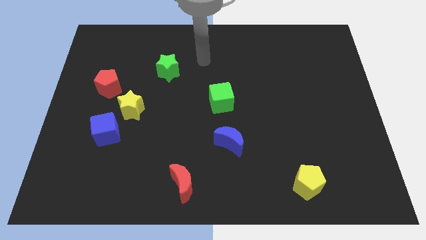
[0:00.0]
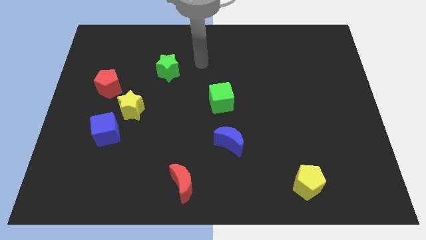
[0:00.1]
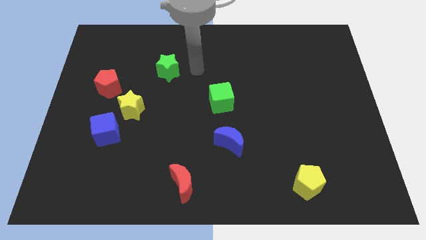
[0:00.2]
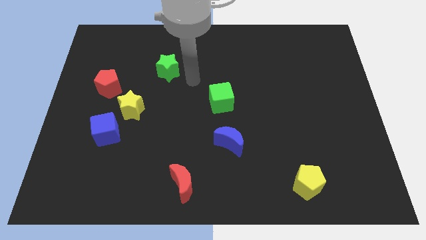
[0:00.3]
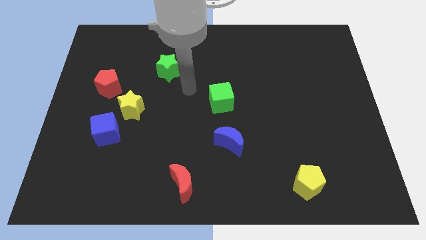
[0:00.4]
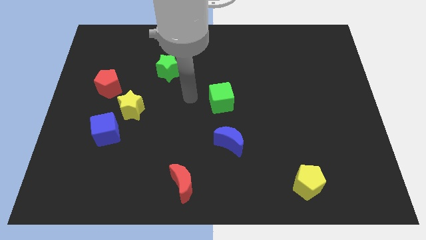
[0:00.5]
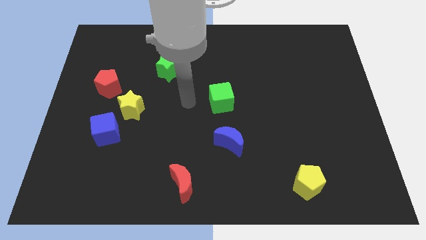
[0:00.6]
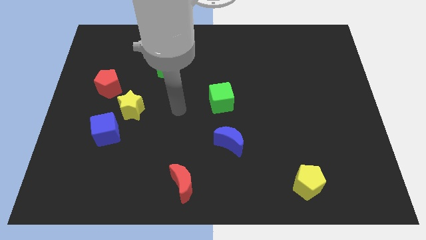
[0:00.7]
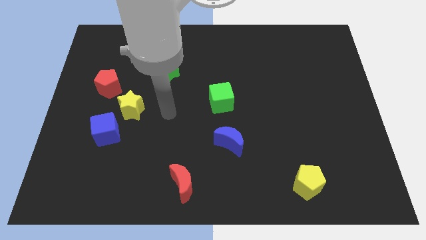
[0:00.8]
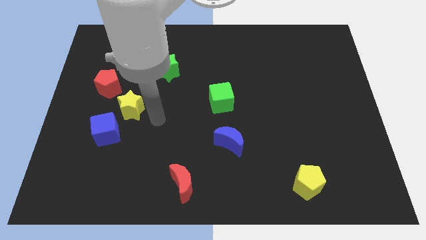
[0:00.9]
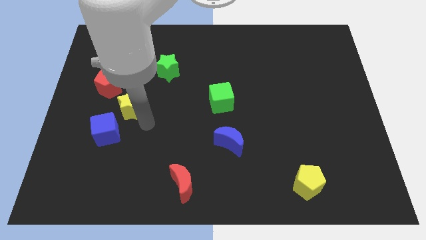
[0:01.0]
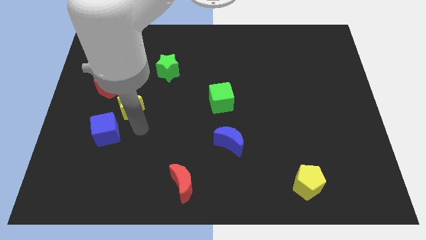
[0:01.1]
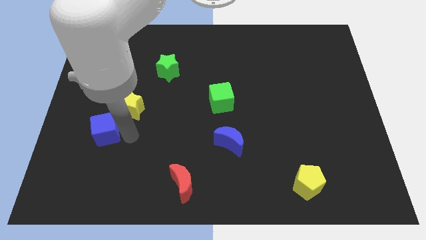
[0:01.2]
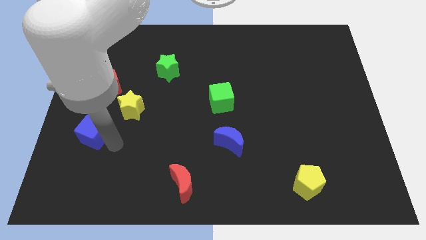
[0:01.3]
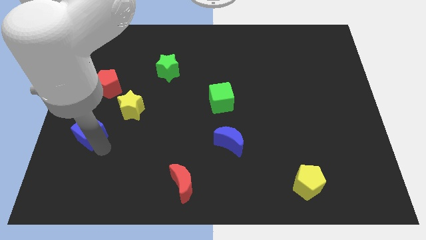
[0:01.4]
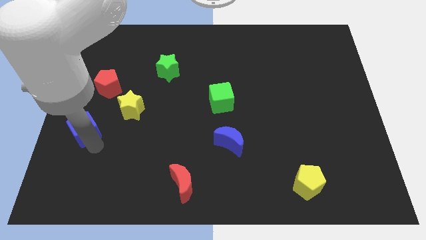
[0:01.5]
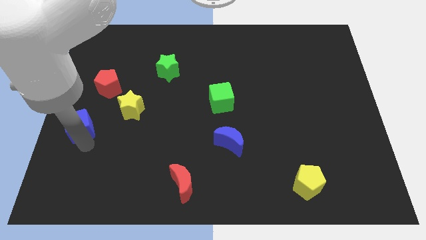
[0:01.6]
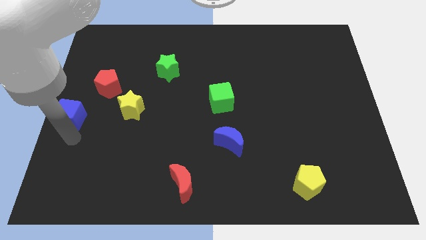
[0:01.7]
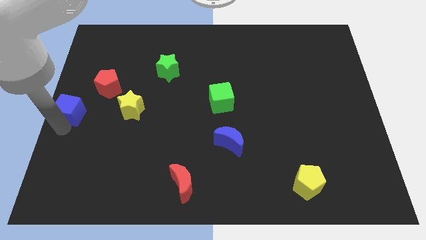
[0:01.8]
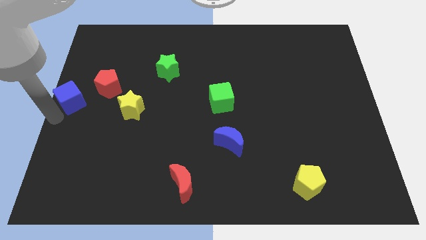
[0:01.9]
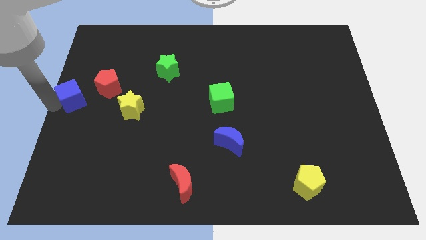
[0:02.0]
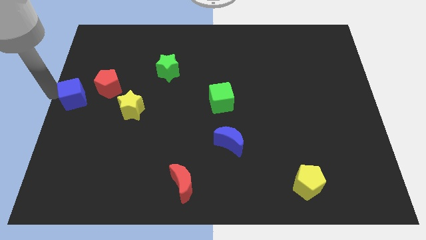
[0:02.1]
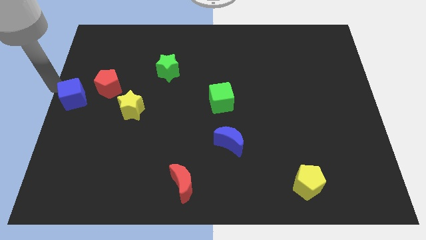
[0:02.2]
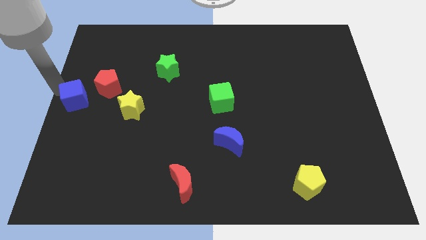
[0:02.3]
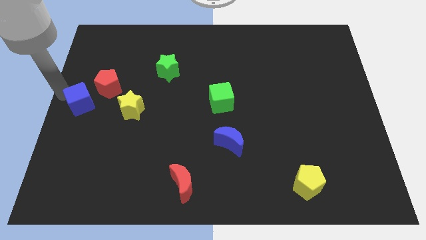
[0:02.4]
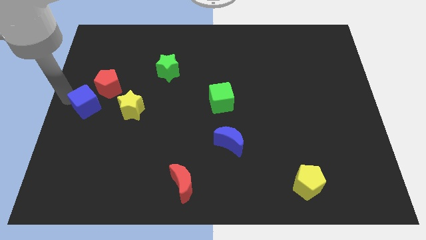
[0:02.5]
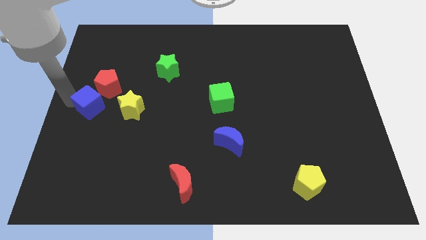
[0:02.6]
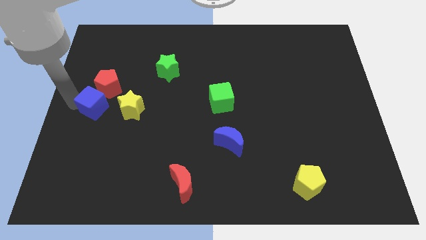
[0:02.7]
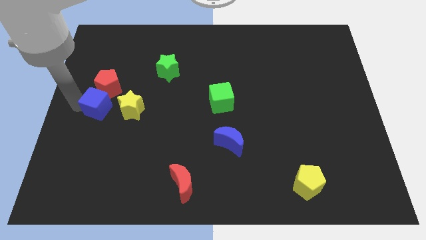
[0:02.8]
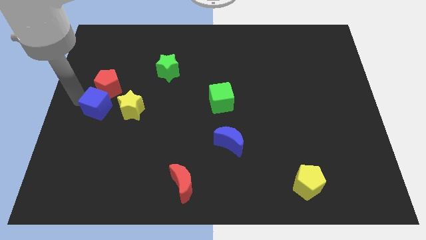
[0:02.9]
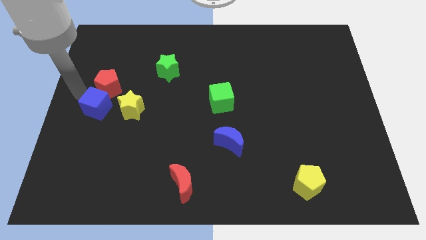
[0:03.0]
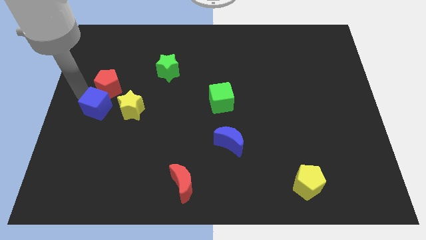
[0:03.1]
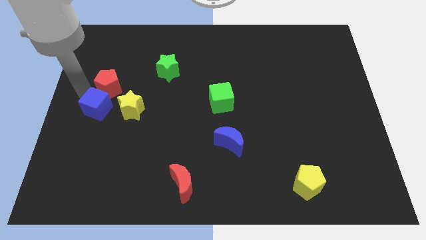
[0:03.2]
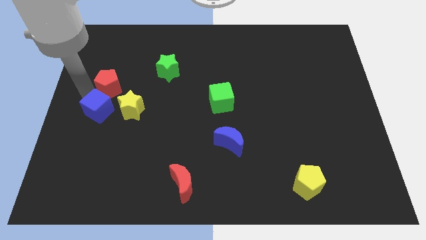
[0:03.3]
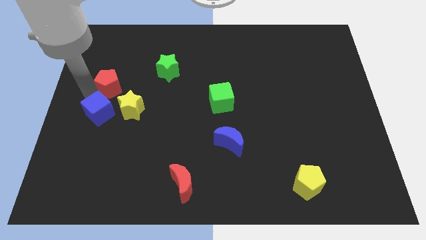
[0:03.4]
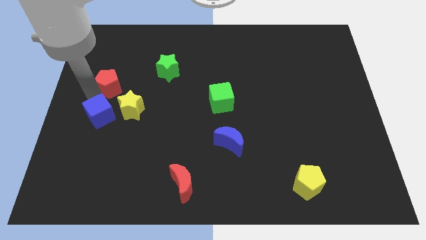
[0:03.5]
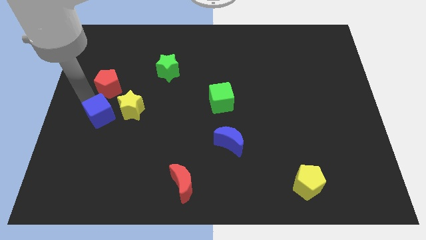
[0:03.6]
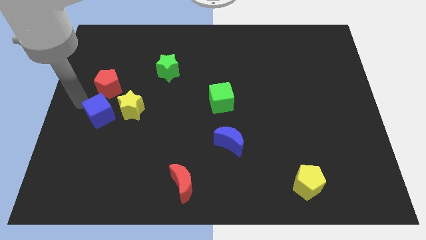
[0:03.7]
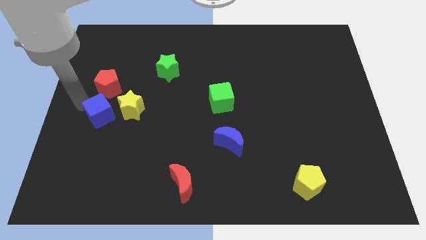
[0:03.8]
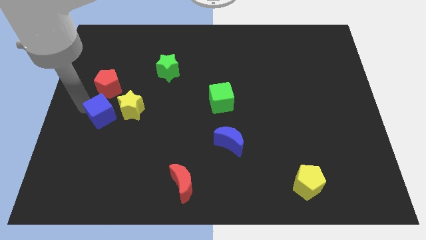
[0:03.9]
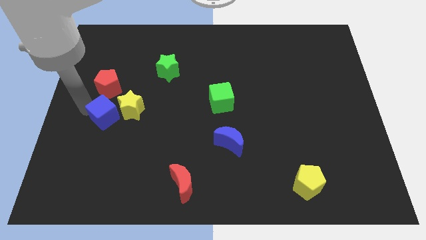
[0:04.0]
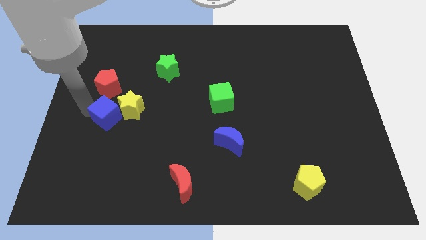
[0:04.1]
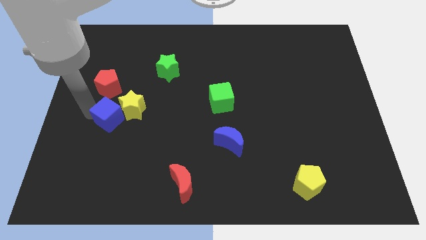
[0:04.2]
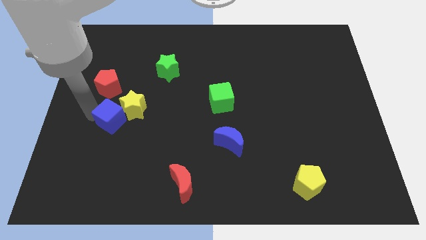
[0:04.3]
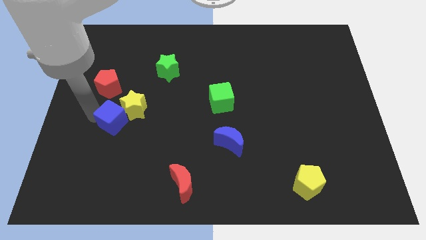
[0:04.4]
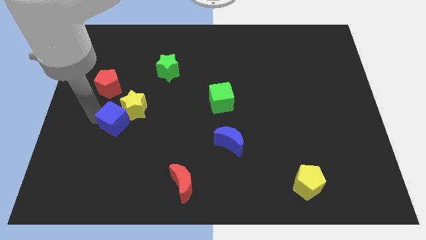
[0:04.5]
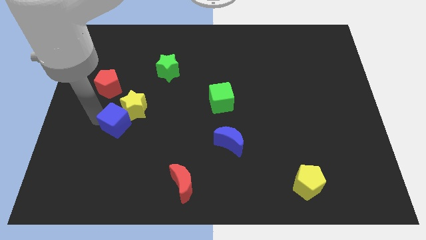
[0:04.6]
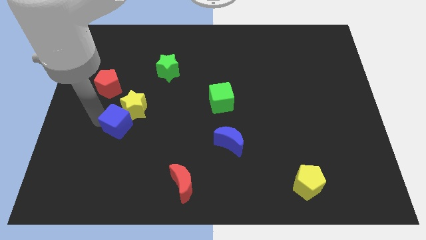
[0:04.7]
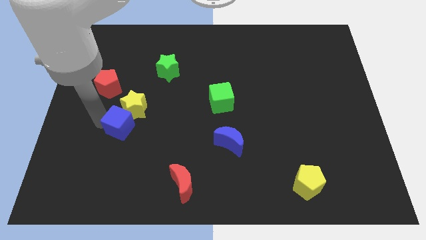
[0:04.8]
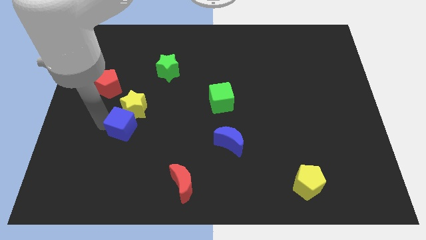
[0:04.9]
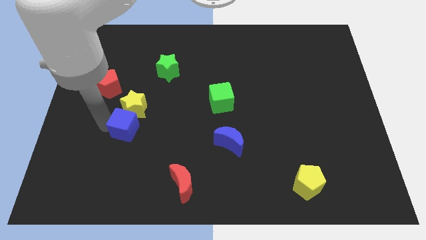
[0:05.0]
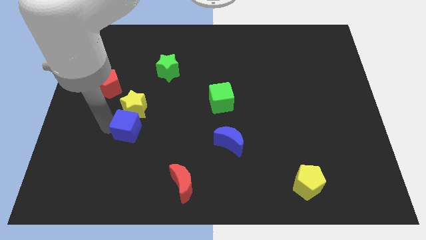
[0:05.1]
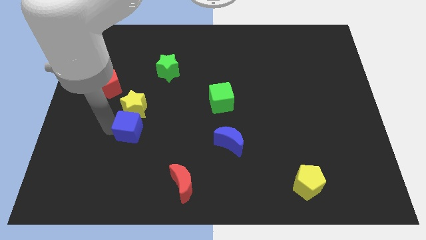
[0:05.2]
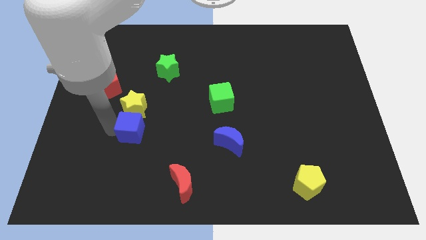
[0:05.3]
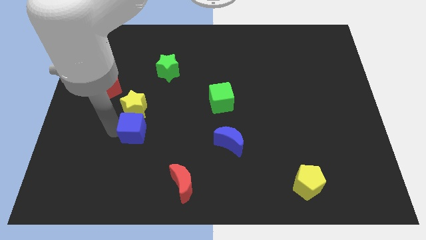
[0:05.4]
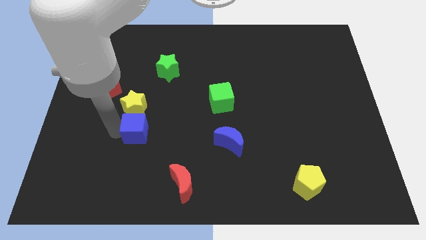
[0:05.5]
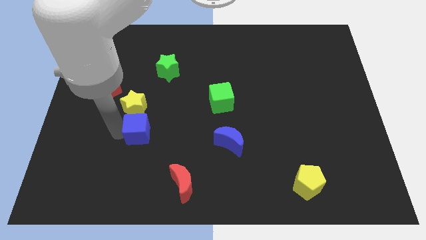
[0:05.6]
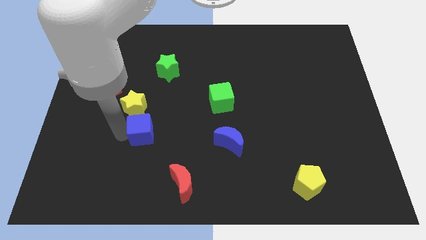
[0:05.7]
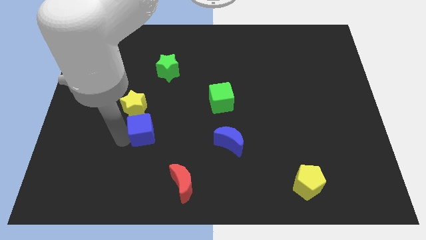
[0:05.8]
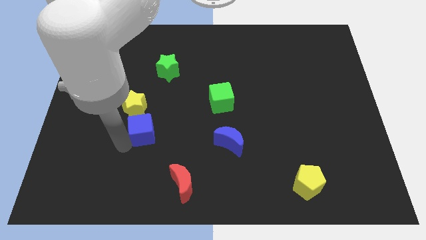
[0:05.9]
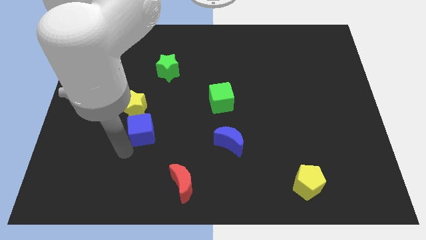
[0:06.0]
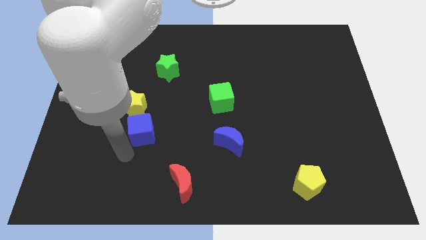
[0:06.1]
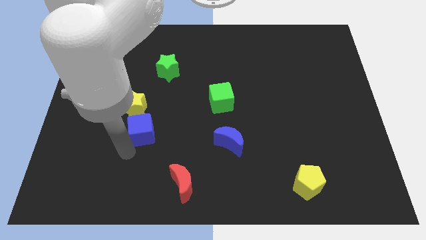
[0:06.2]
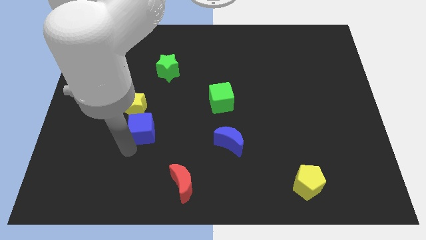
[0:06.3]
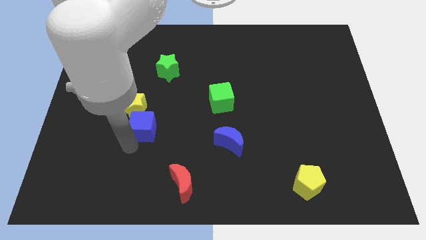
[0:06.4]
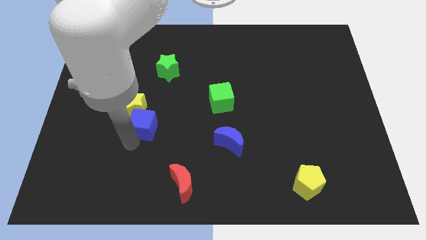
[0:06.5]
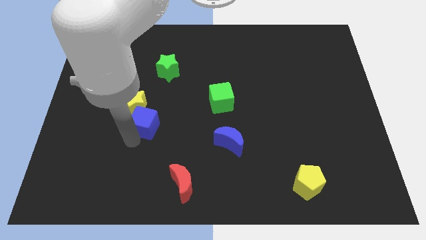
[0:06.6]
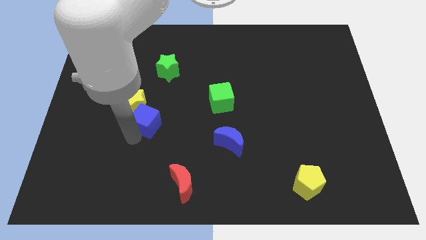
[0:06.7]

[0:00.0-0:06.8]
move the blue cube diagonally up and to the right a little

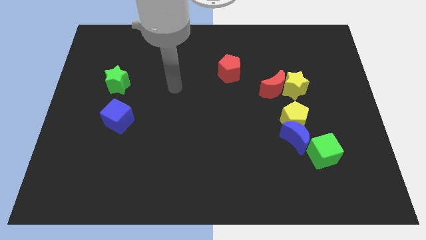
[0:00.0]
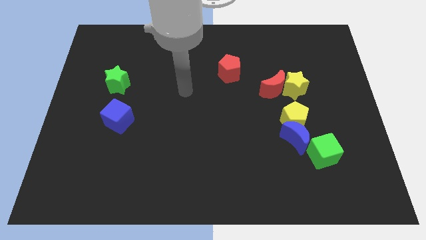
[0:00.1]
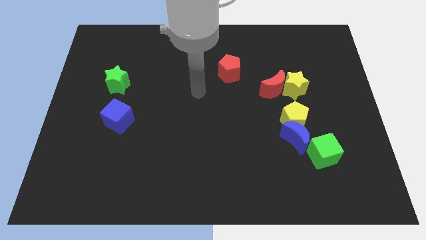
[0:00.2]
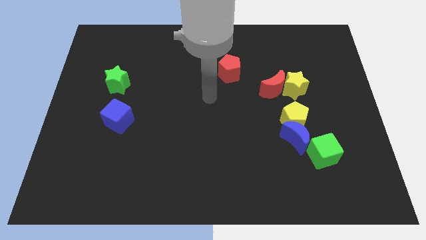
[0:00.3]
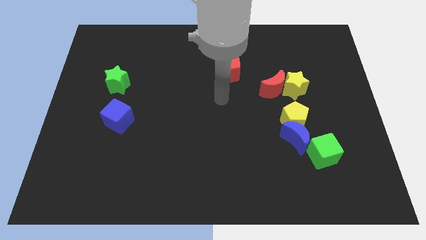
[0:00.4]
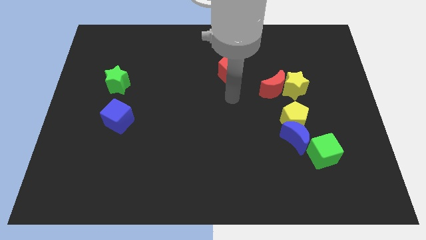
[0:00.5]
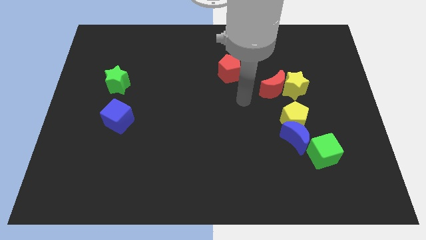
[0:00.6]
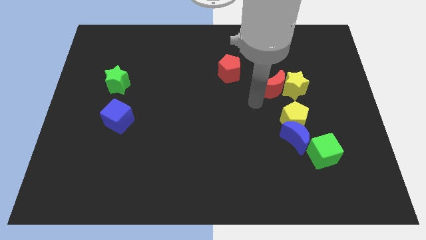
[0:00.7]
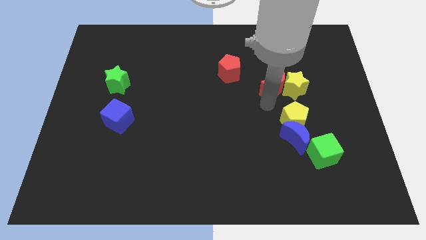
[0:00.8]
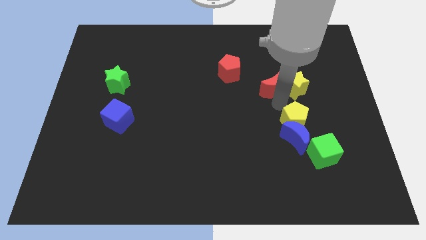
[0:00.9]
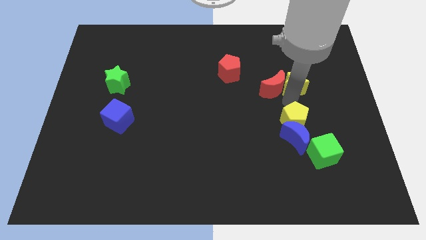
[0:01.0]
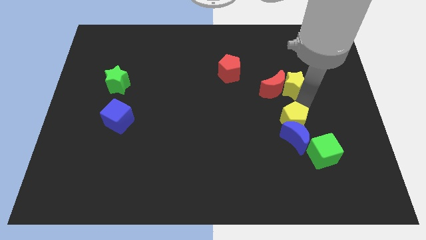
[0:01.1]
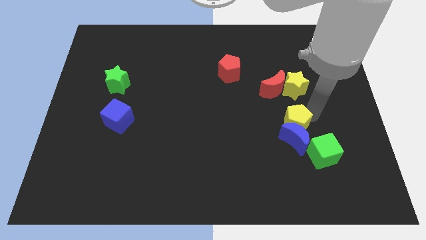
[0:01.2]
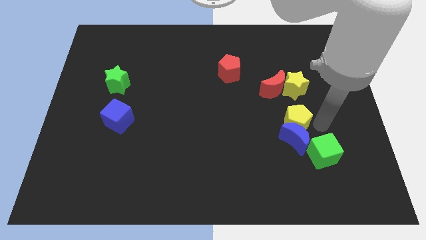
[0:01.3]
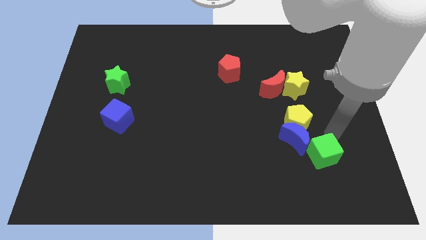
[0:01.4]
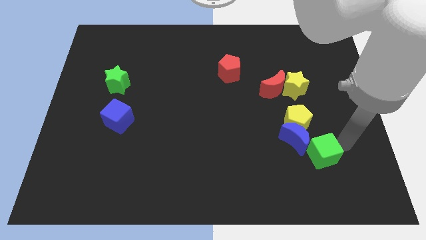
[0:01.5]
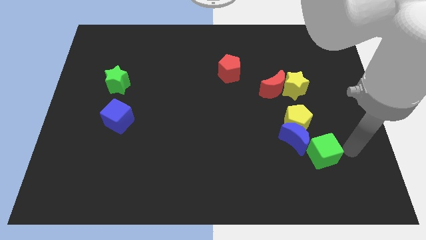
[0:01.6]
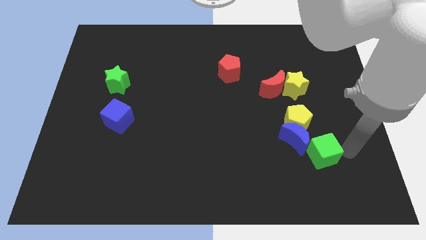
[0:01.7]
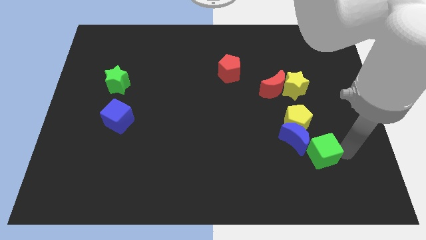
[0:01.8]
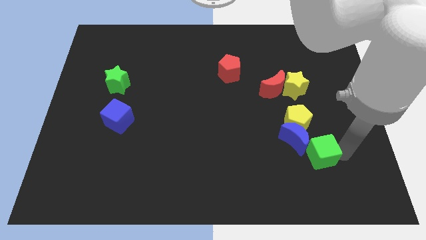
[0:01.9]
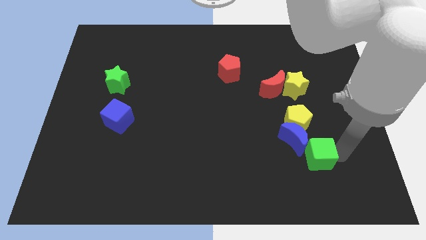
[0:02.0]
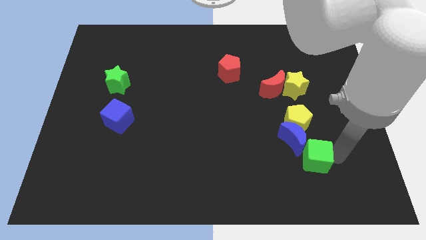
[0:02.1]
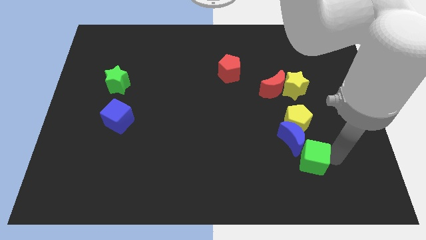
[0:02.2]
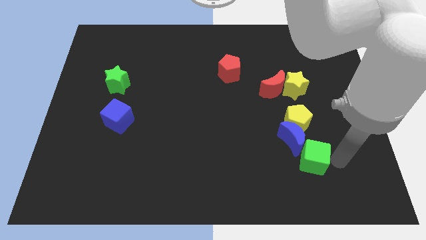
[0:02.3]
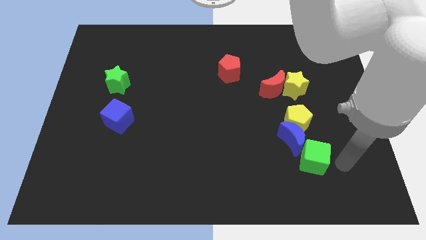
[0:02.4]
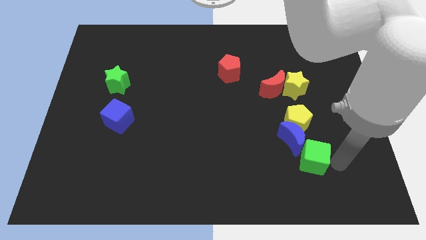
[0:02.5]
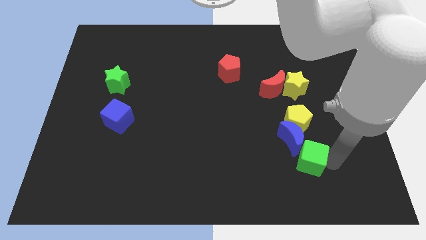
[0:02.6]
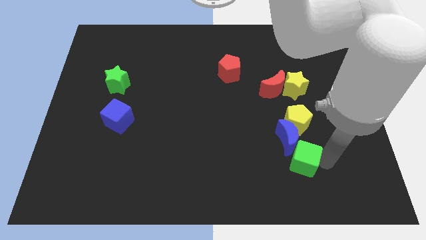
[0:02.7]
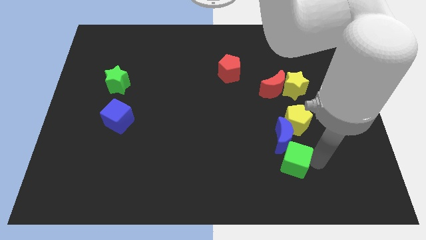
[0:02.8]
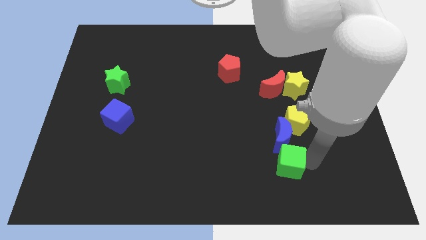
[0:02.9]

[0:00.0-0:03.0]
slightly move the green cube left
